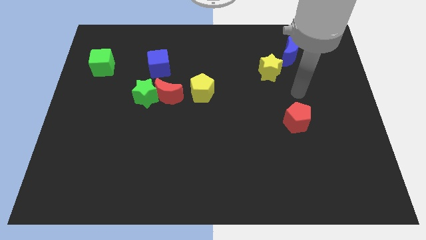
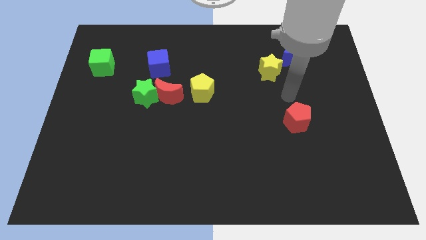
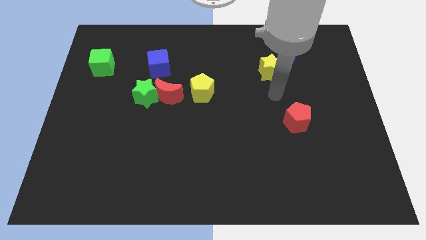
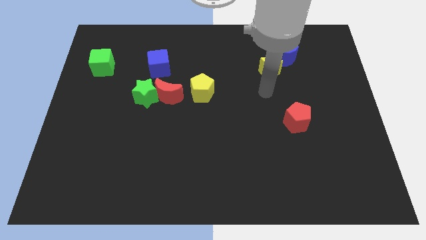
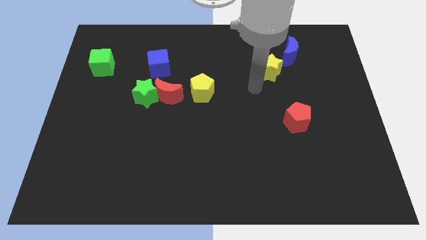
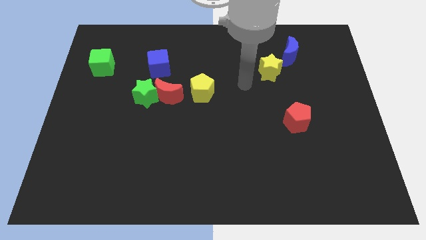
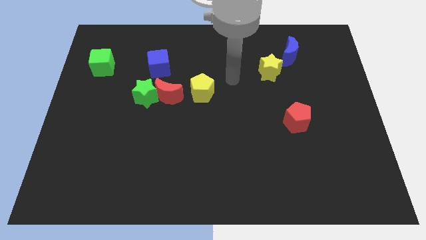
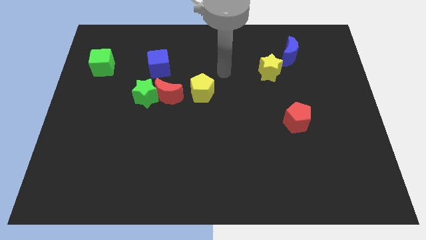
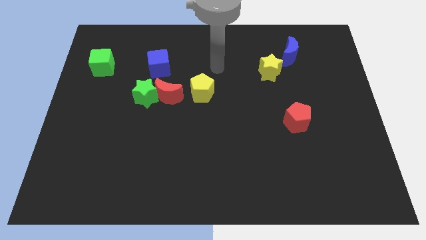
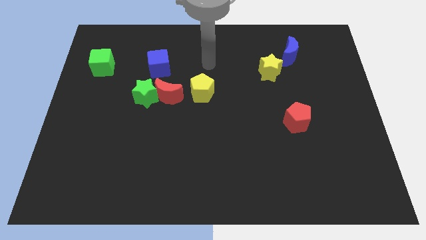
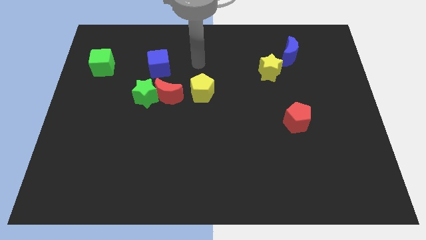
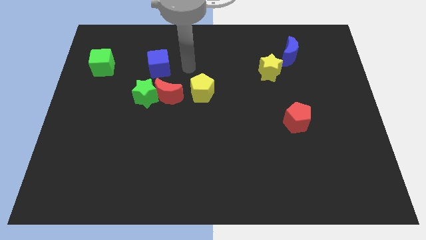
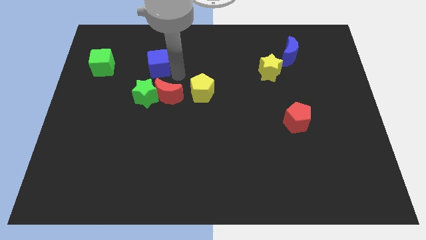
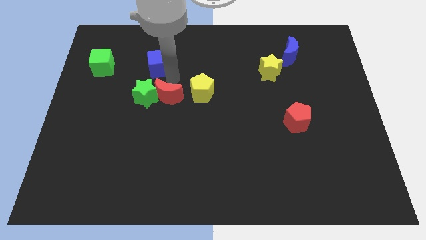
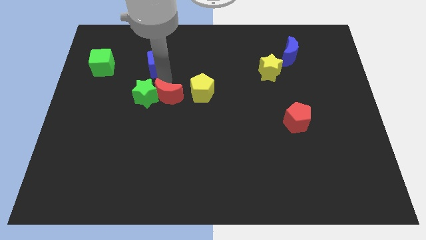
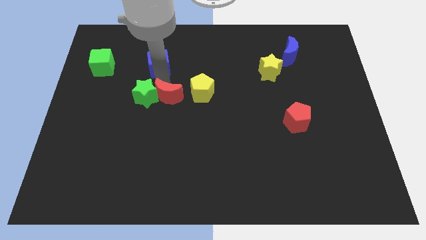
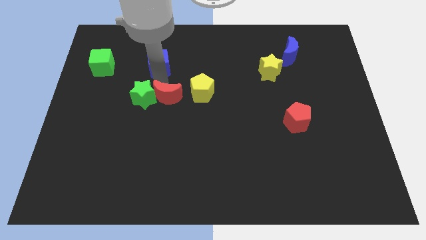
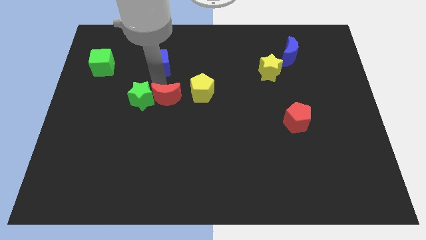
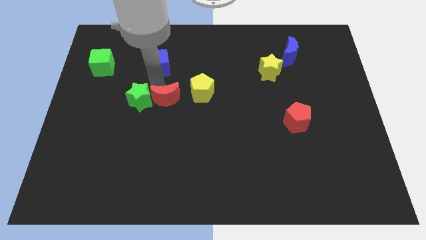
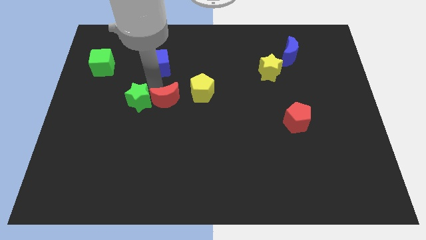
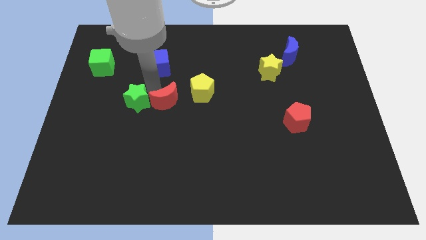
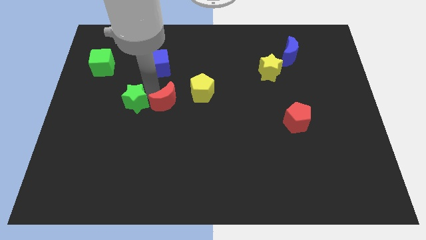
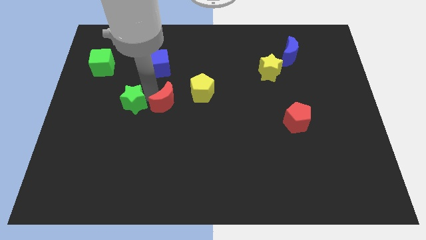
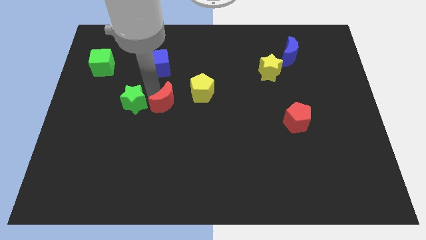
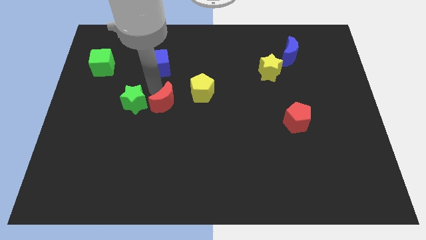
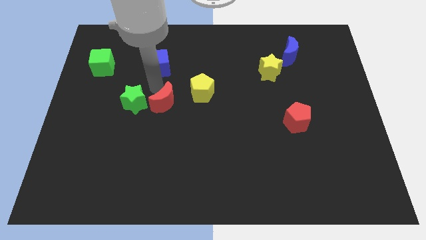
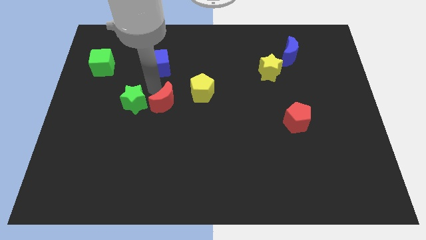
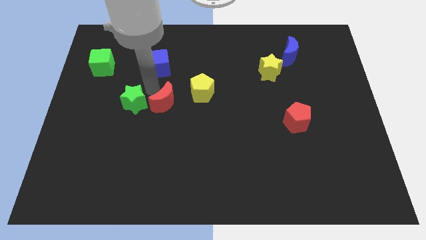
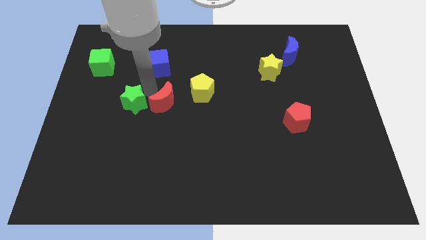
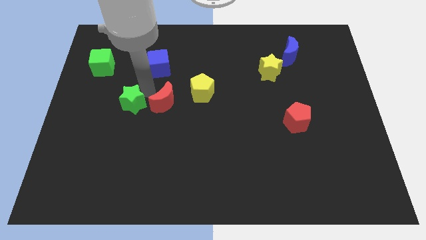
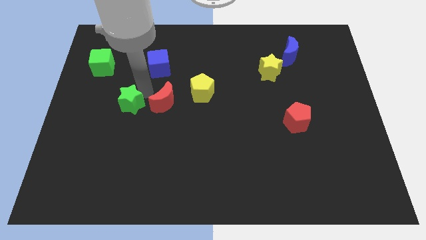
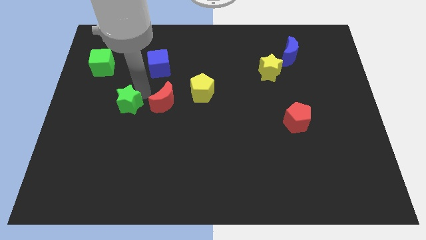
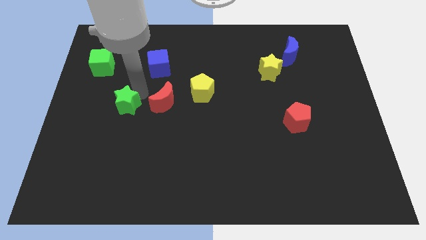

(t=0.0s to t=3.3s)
pull the green star apart from the red moon and blue cube

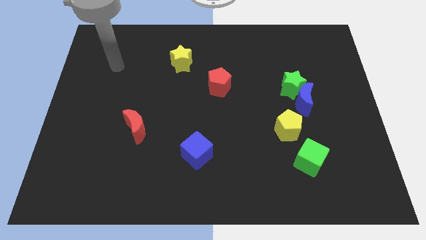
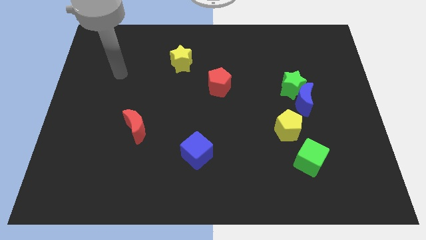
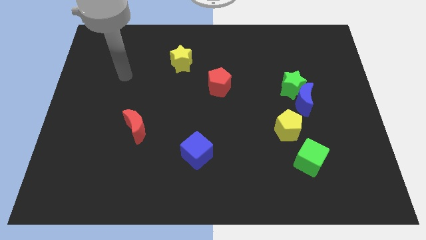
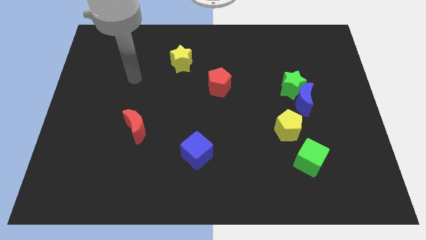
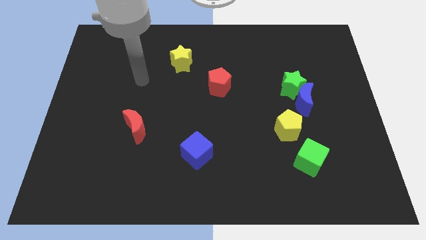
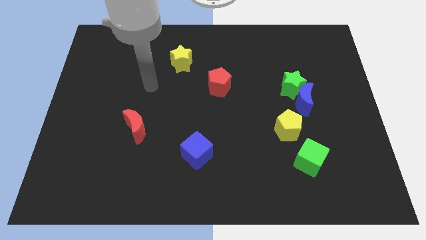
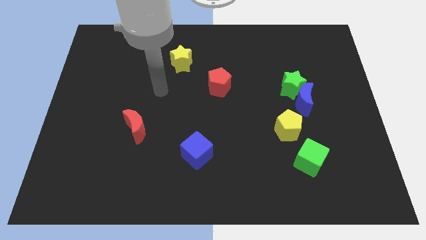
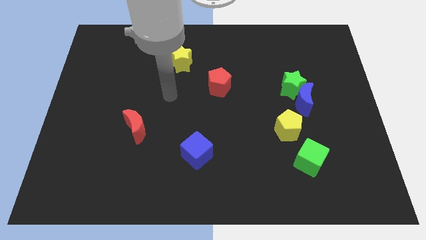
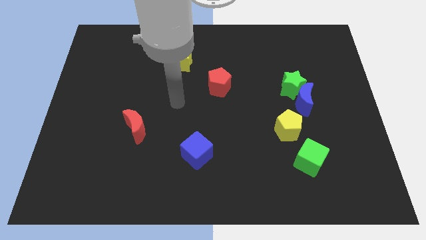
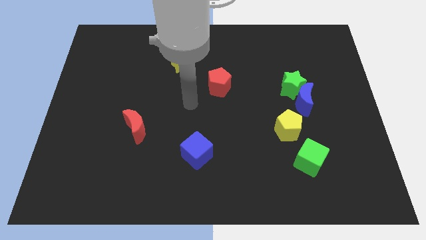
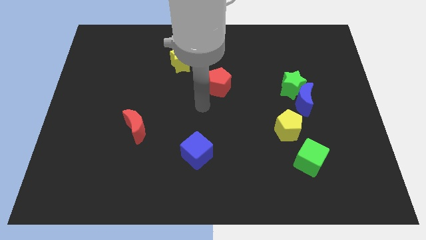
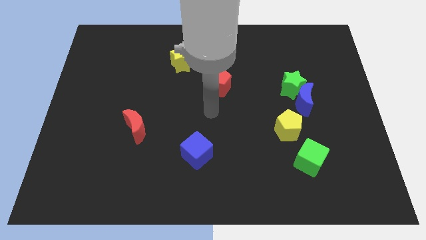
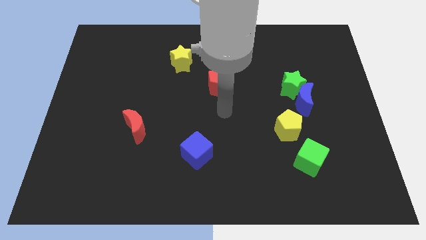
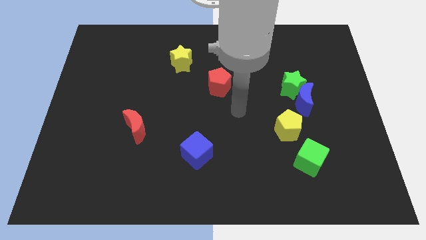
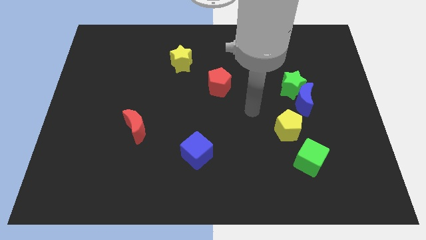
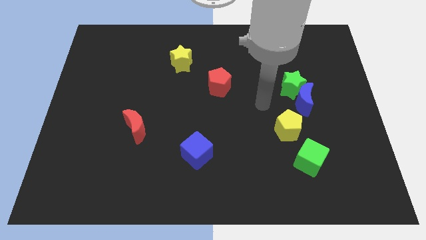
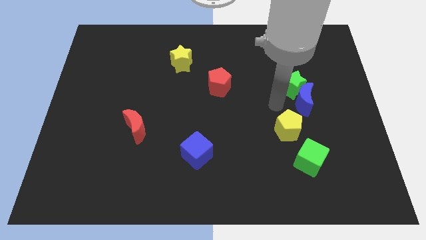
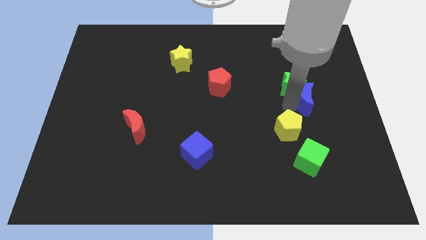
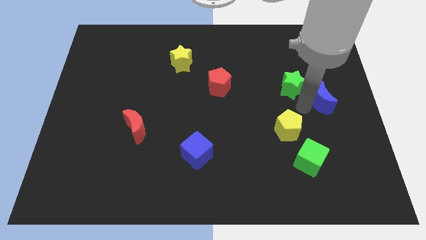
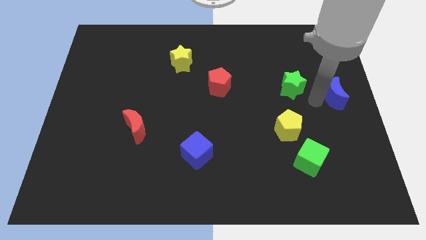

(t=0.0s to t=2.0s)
move the green star away from the blue moon

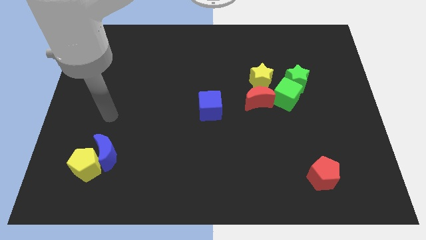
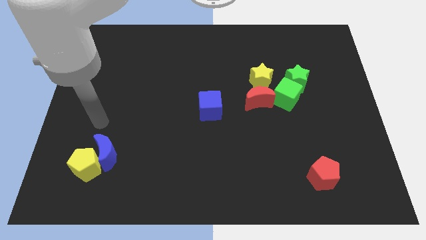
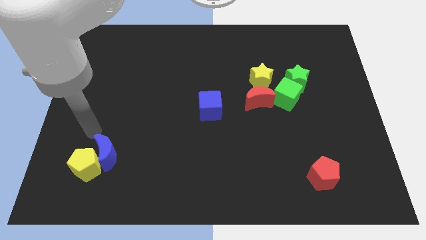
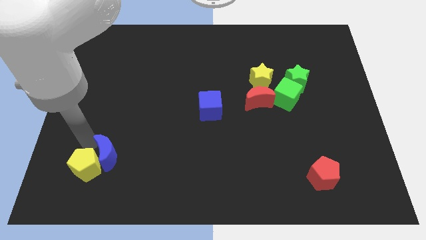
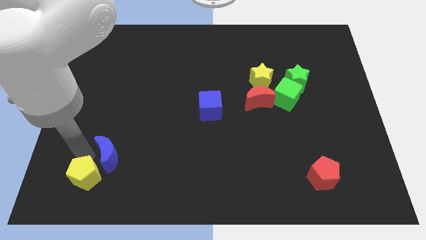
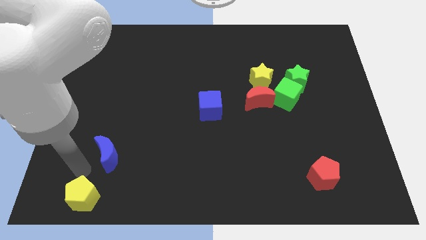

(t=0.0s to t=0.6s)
separate the blue moon from the yellow pentagon

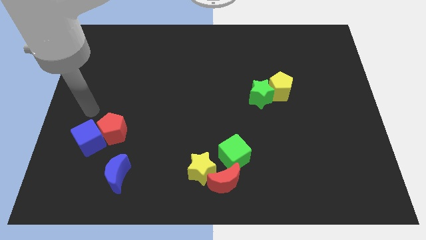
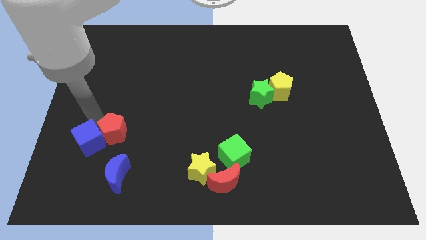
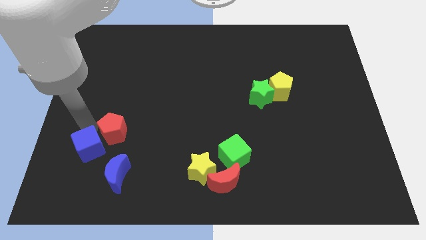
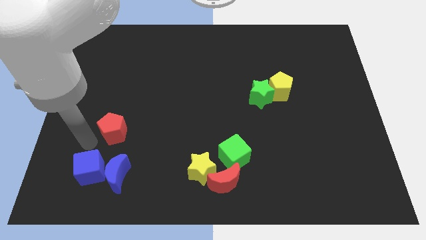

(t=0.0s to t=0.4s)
pull the red pentagon apart from the blue cube

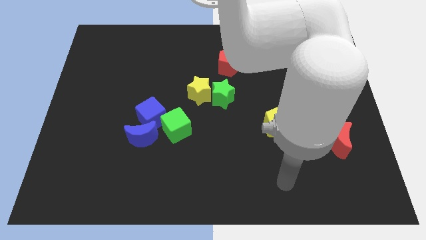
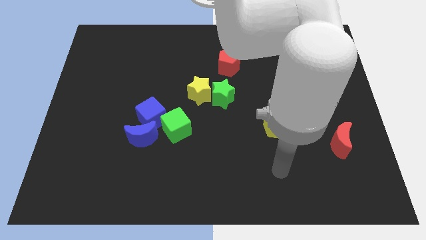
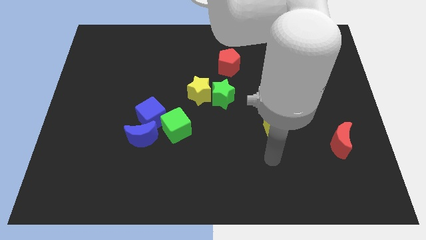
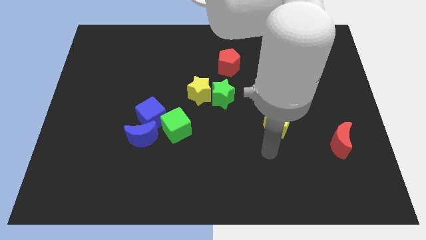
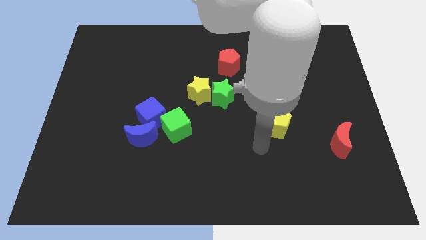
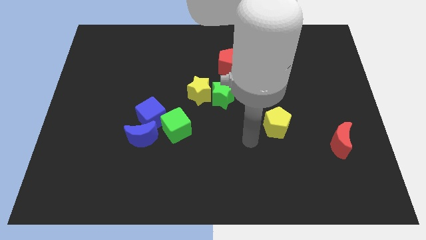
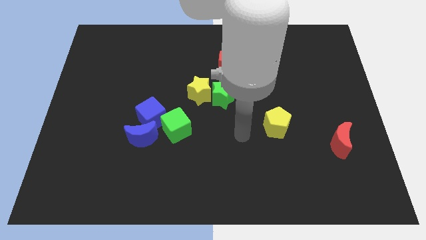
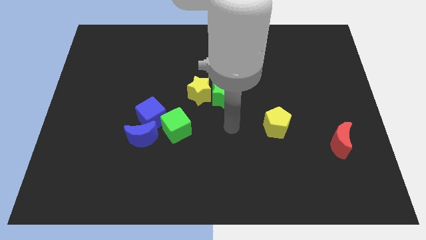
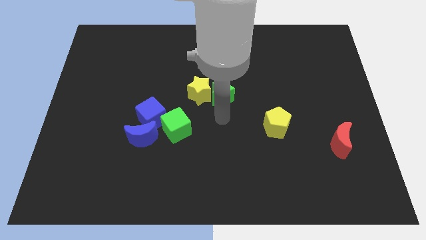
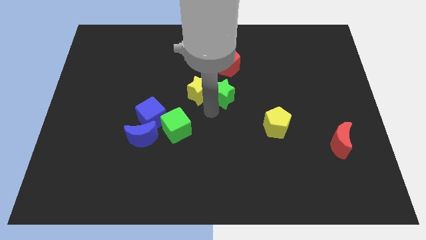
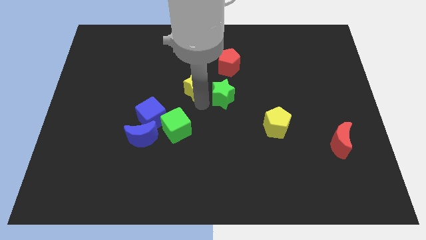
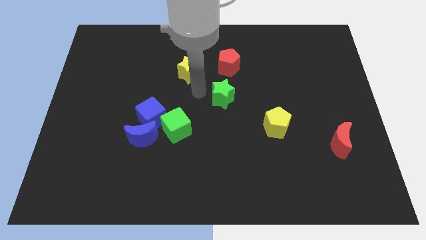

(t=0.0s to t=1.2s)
pull the green star apart from the yellow star

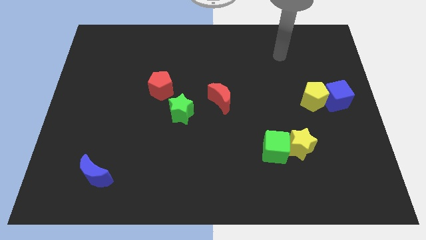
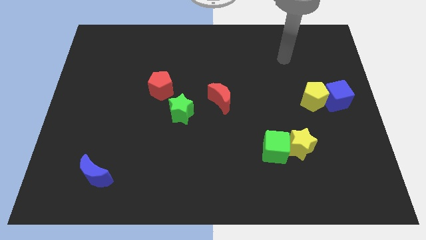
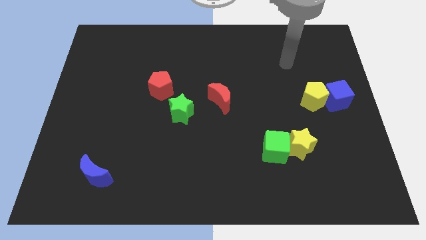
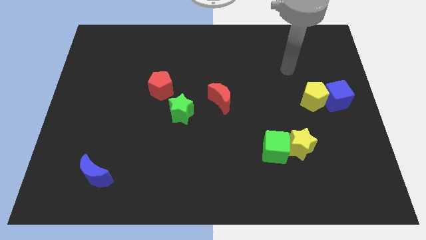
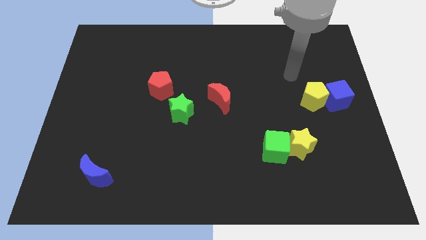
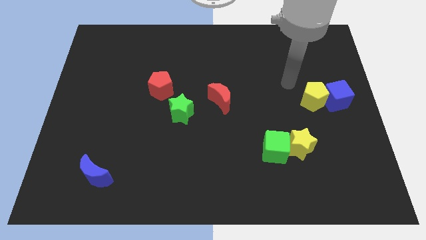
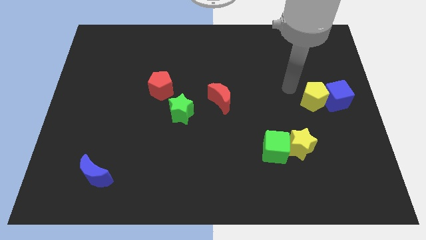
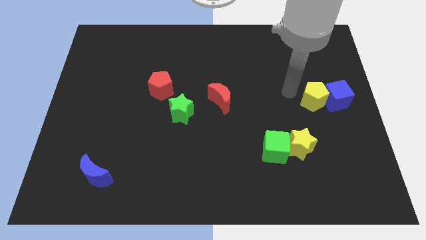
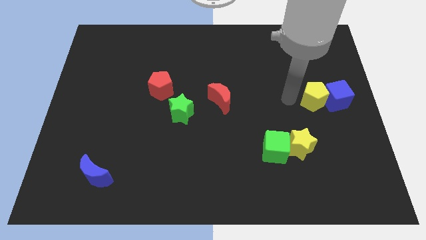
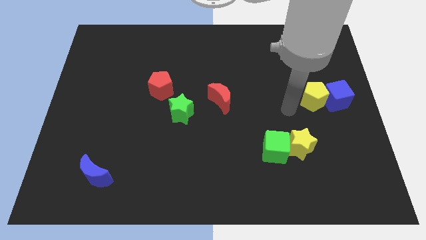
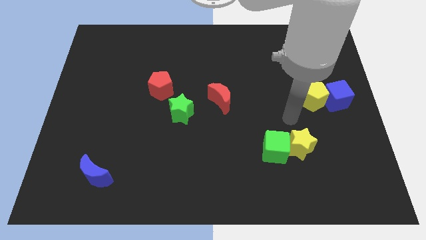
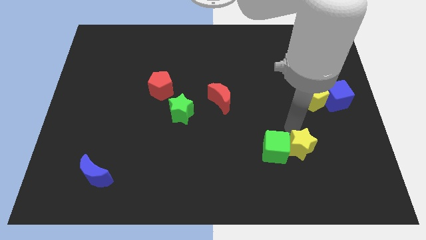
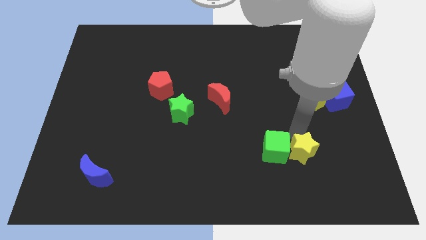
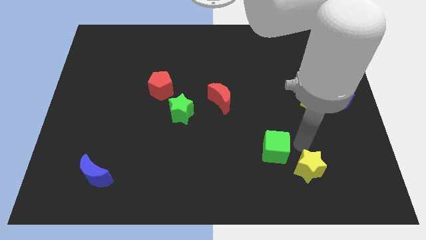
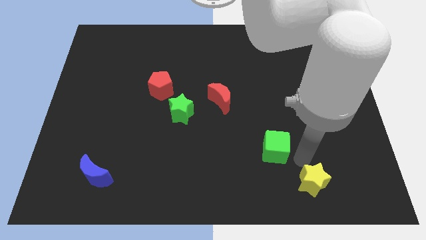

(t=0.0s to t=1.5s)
move the green cube away from the yellow star

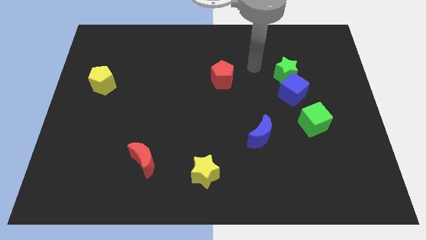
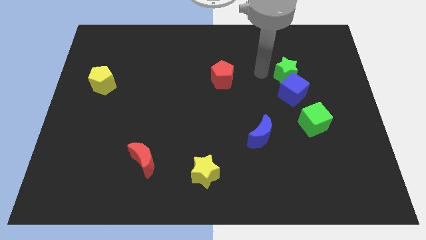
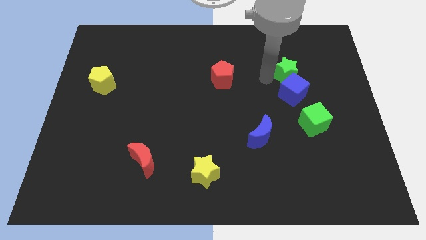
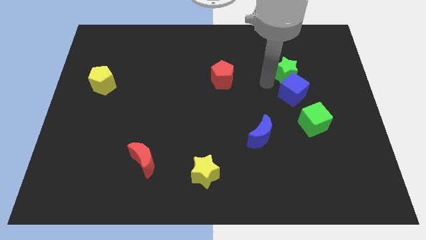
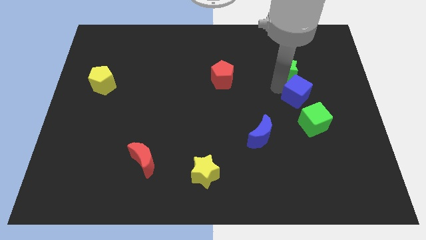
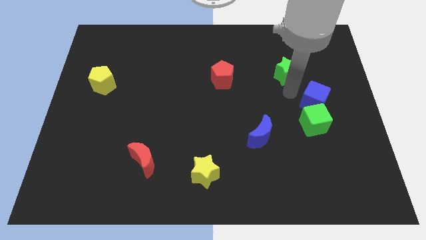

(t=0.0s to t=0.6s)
separate the green star from the blue cube
